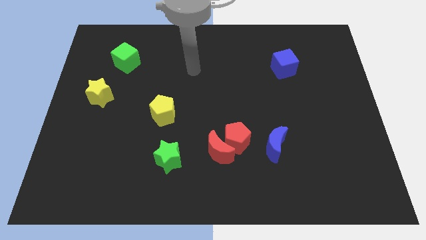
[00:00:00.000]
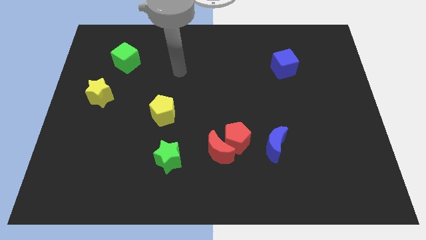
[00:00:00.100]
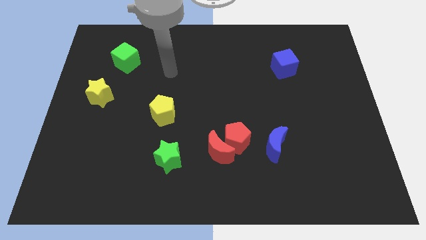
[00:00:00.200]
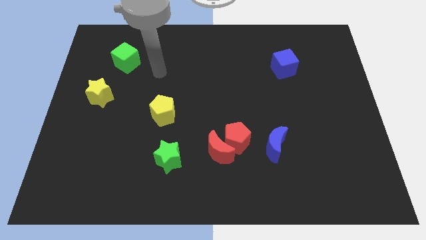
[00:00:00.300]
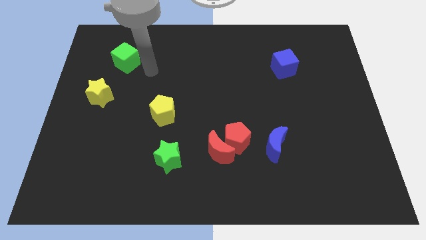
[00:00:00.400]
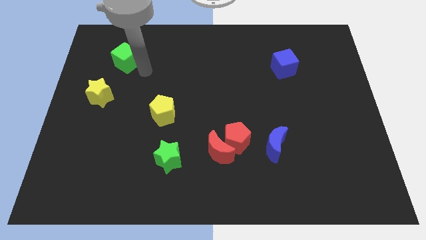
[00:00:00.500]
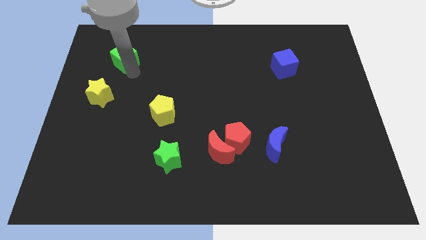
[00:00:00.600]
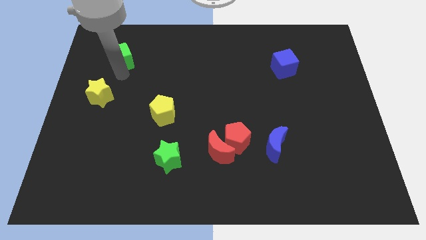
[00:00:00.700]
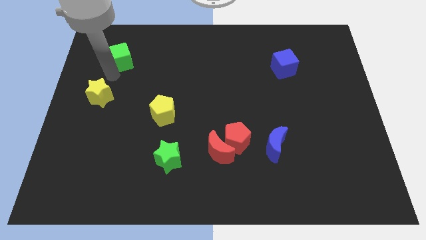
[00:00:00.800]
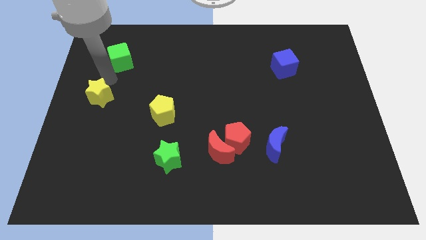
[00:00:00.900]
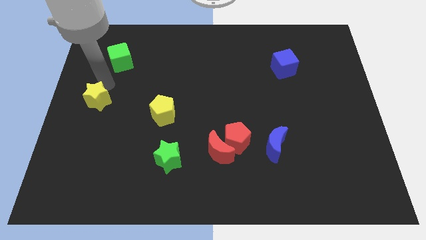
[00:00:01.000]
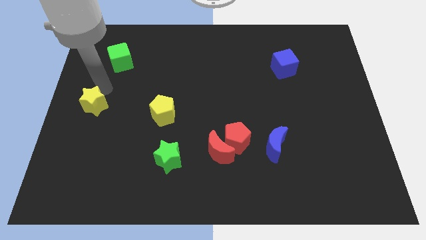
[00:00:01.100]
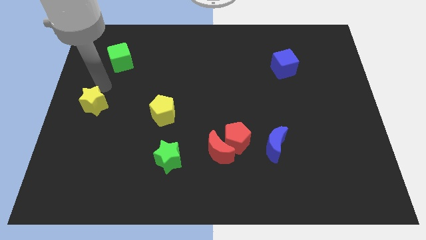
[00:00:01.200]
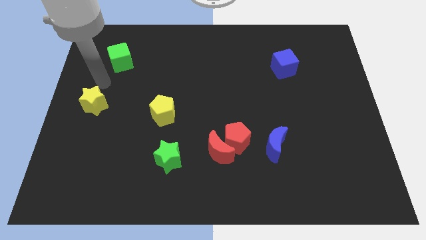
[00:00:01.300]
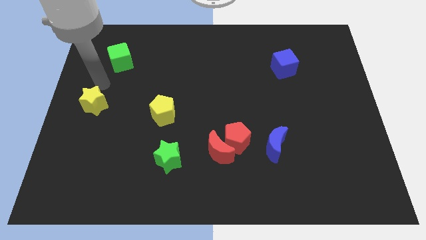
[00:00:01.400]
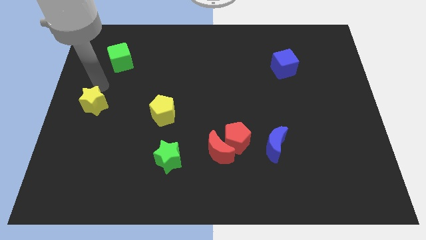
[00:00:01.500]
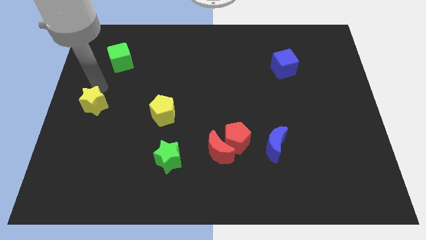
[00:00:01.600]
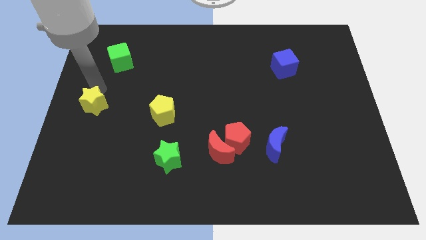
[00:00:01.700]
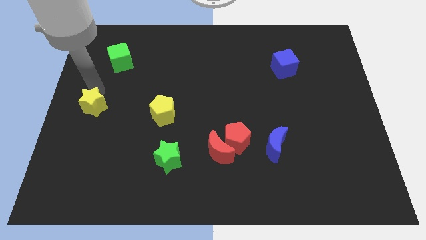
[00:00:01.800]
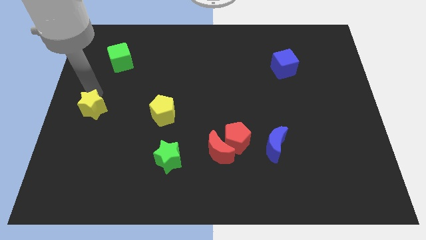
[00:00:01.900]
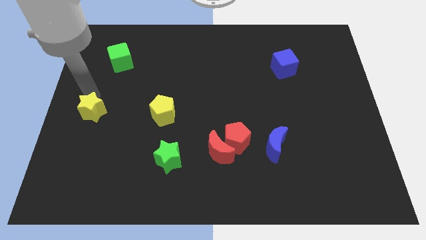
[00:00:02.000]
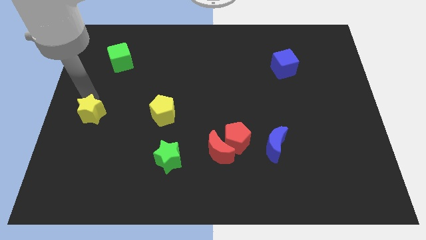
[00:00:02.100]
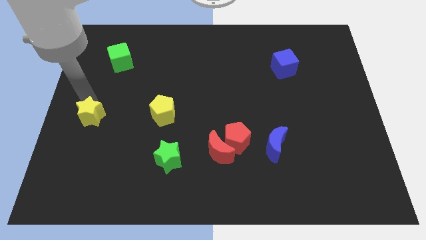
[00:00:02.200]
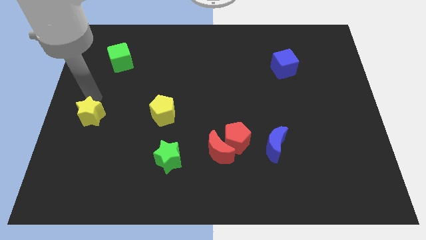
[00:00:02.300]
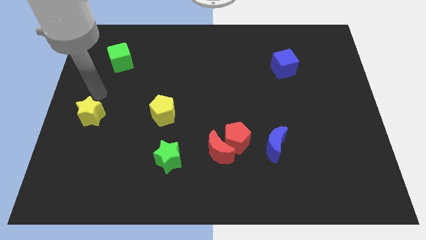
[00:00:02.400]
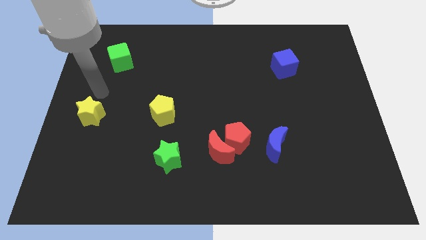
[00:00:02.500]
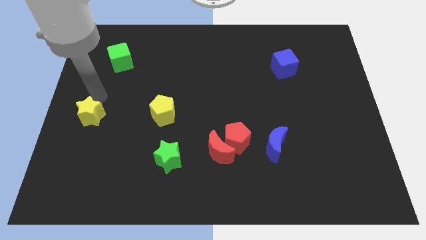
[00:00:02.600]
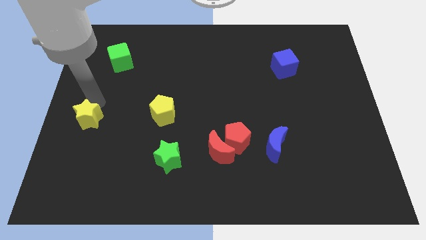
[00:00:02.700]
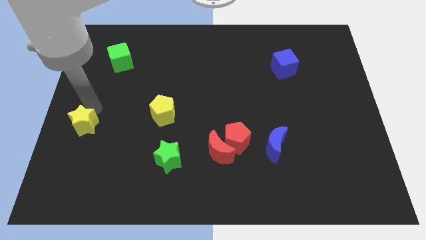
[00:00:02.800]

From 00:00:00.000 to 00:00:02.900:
slide the yellow star a little downwards

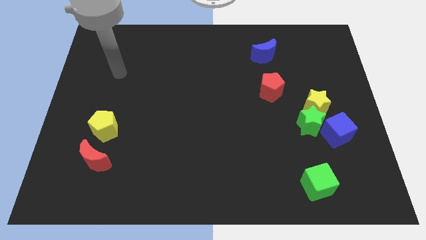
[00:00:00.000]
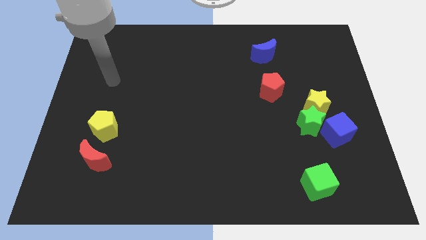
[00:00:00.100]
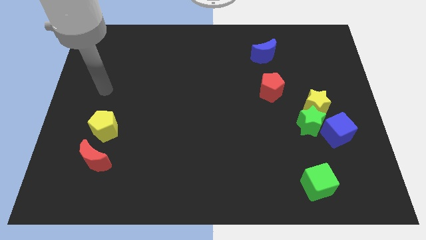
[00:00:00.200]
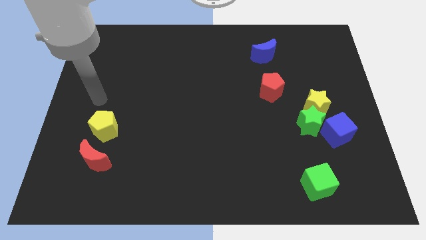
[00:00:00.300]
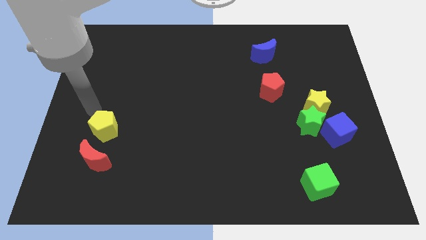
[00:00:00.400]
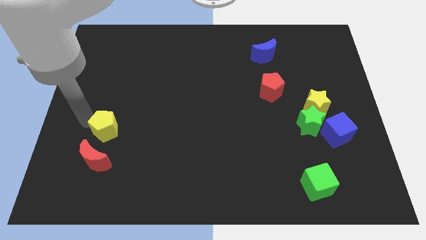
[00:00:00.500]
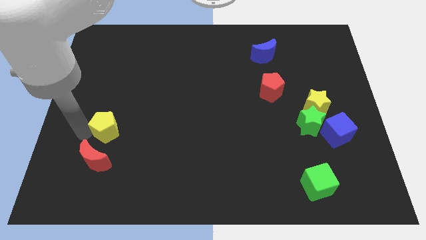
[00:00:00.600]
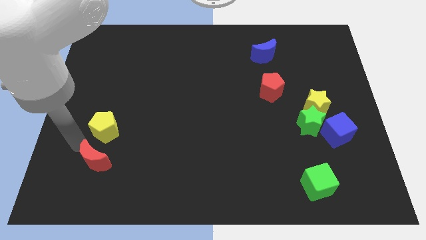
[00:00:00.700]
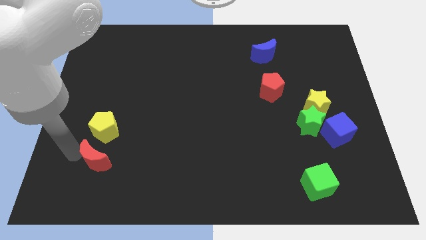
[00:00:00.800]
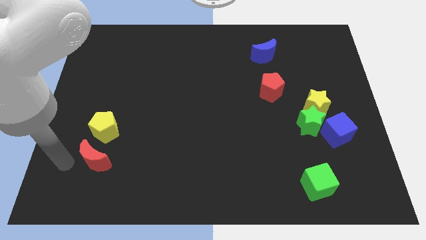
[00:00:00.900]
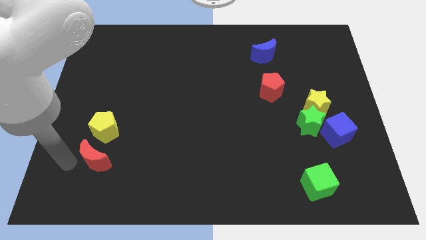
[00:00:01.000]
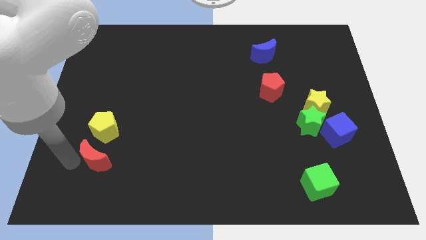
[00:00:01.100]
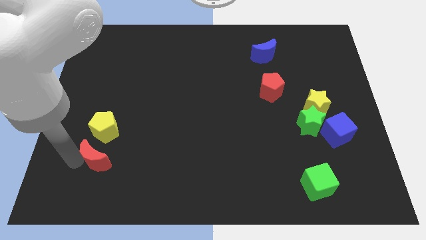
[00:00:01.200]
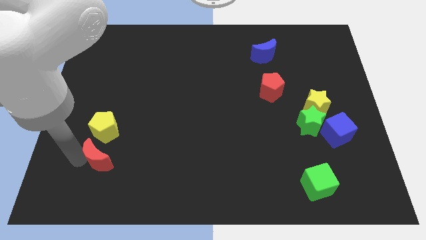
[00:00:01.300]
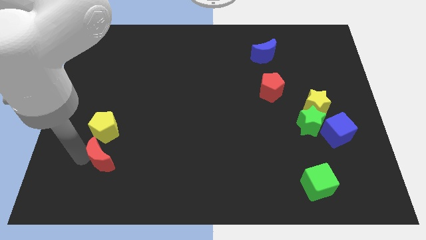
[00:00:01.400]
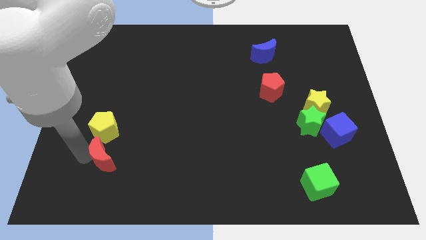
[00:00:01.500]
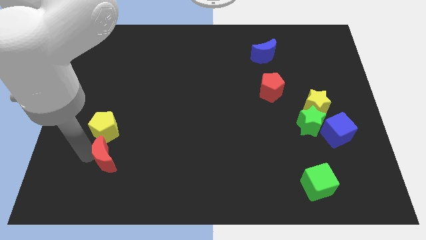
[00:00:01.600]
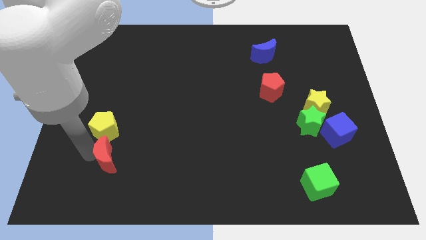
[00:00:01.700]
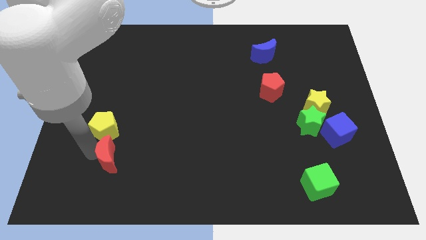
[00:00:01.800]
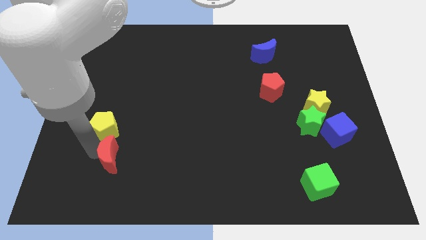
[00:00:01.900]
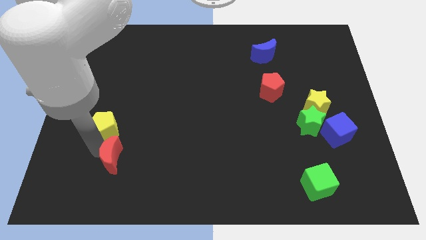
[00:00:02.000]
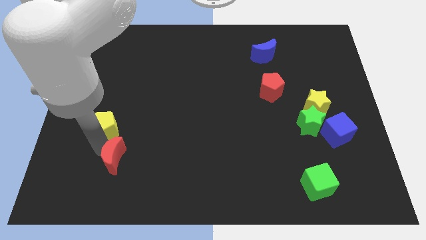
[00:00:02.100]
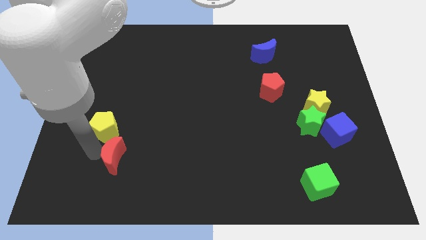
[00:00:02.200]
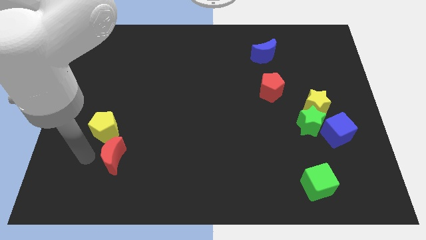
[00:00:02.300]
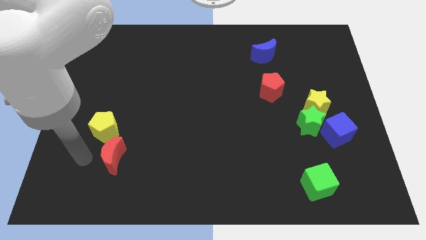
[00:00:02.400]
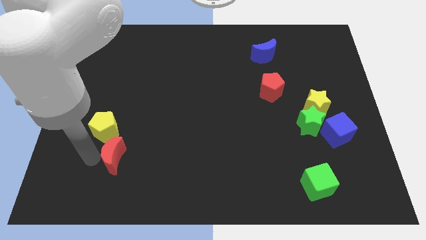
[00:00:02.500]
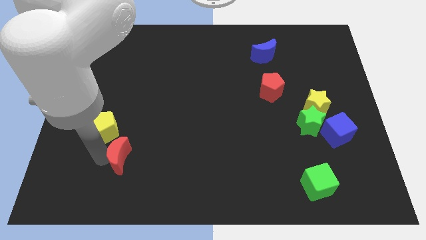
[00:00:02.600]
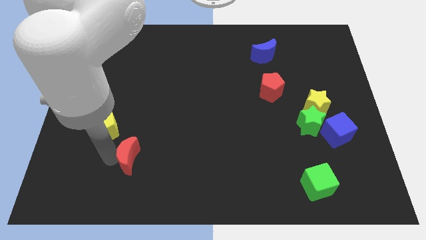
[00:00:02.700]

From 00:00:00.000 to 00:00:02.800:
slide the red moon right somewhat

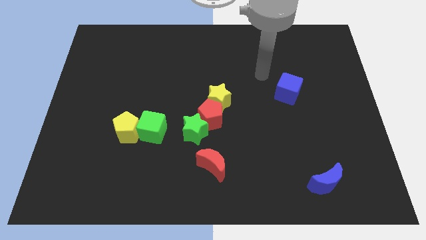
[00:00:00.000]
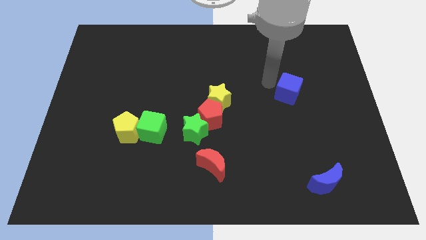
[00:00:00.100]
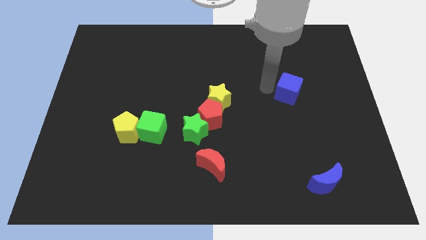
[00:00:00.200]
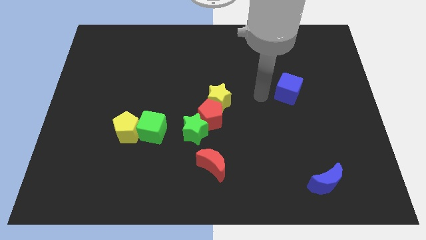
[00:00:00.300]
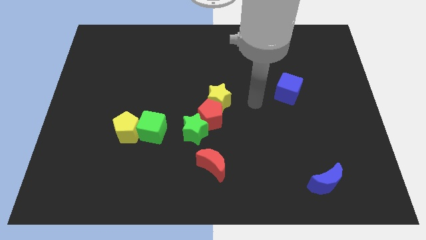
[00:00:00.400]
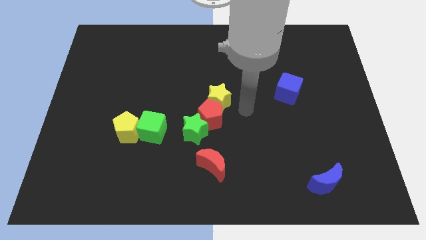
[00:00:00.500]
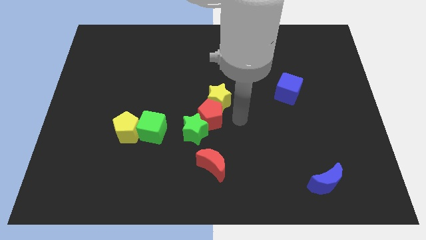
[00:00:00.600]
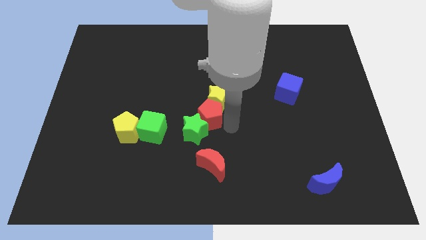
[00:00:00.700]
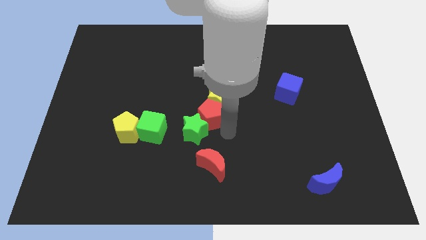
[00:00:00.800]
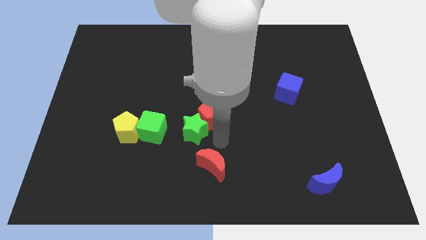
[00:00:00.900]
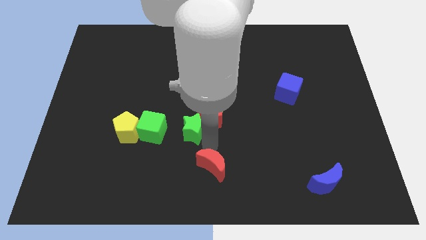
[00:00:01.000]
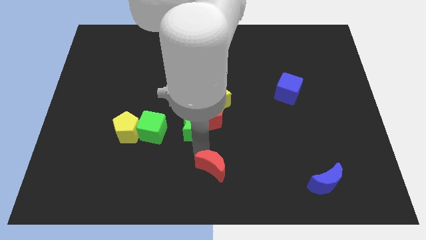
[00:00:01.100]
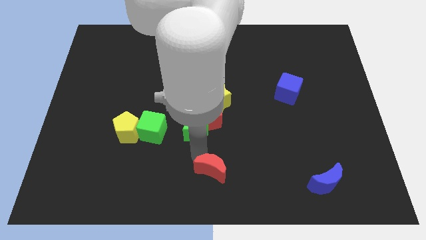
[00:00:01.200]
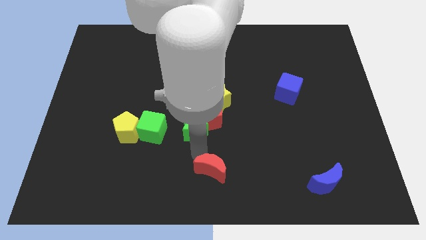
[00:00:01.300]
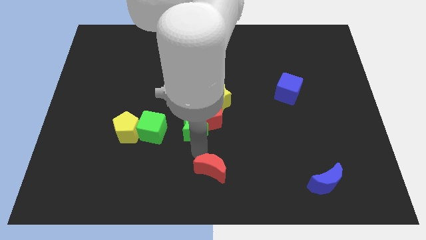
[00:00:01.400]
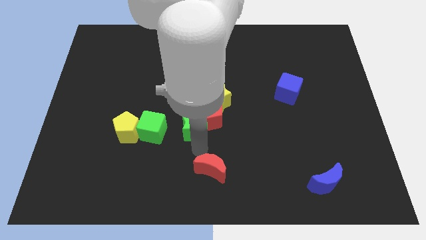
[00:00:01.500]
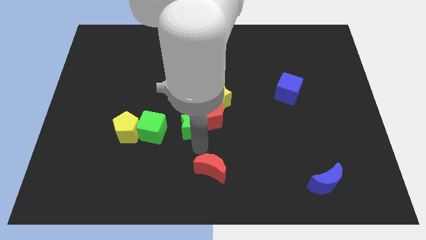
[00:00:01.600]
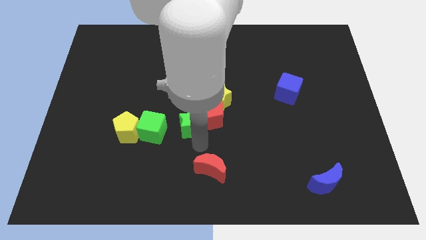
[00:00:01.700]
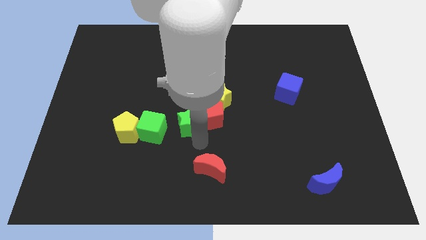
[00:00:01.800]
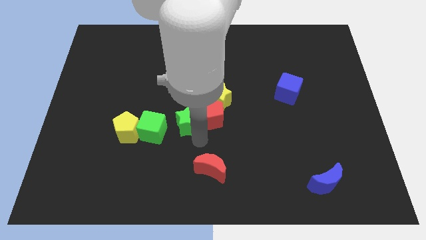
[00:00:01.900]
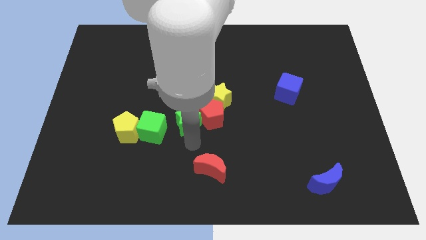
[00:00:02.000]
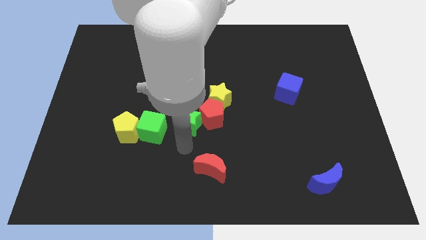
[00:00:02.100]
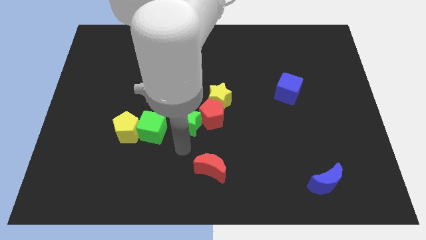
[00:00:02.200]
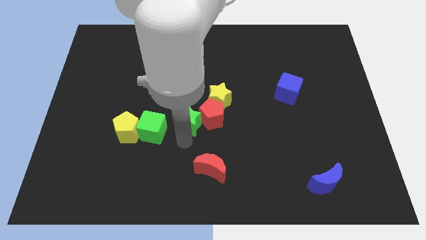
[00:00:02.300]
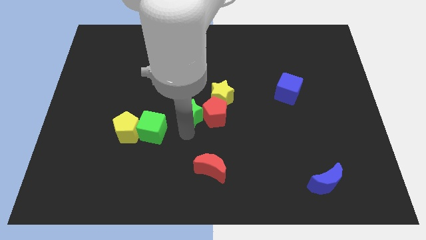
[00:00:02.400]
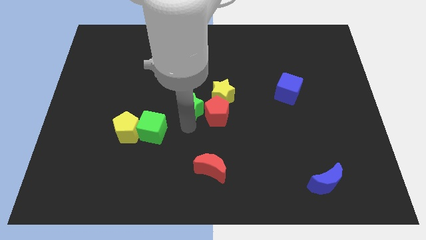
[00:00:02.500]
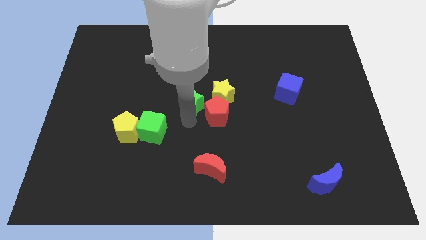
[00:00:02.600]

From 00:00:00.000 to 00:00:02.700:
push the green star a little bit upwards

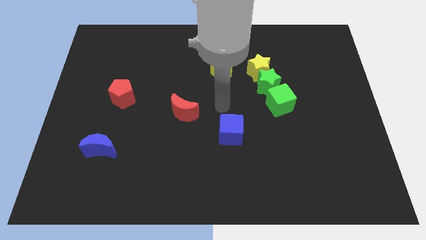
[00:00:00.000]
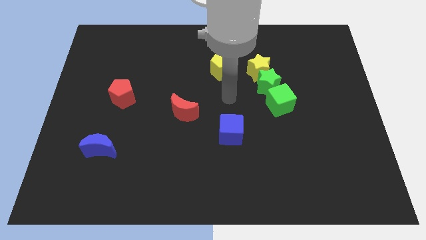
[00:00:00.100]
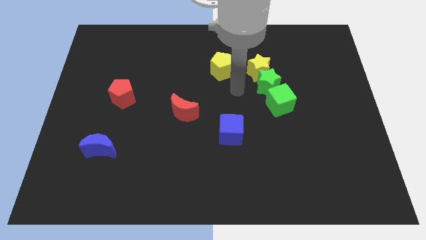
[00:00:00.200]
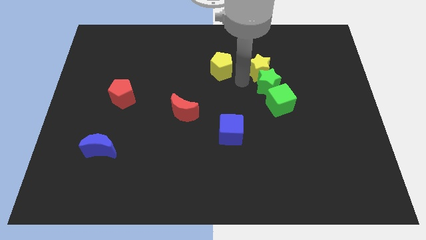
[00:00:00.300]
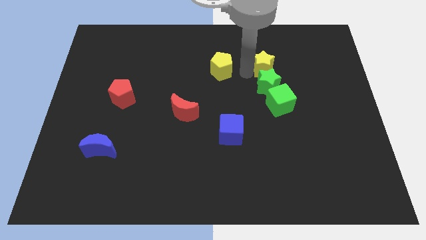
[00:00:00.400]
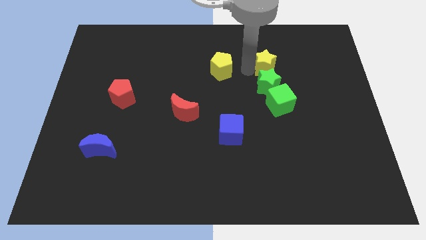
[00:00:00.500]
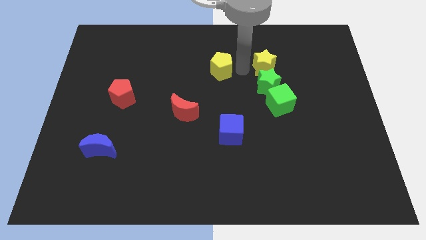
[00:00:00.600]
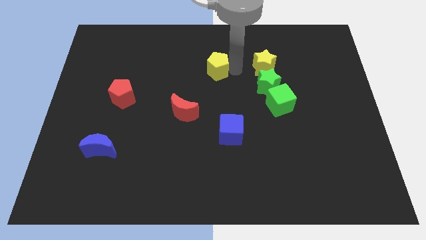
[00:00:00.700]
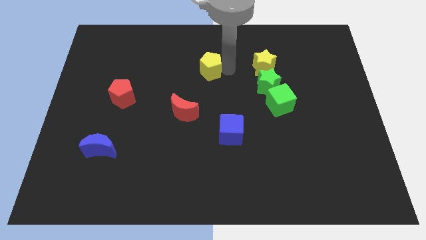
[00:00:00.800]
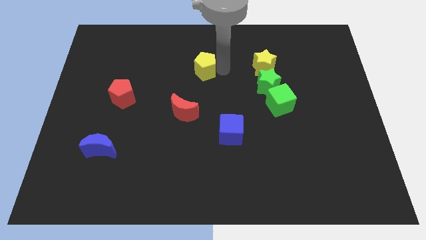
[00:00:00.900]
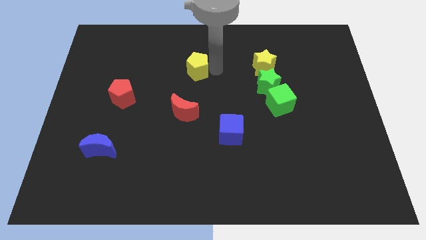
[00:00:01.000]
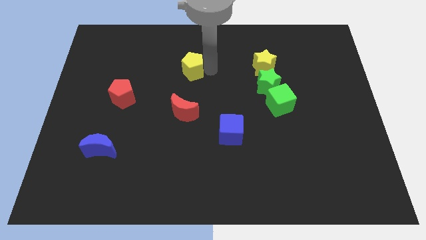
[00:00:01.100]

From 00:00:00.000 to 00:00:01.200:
slide the yellow pentagon to the left a bit
